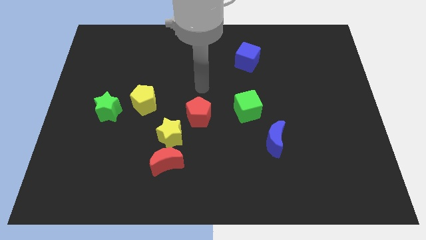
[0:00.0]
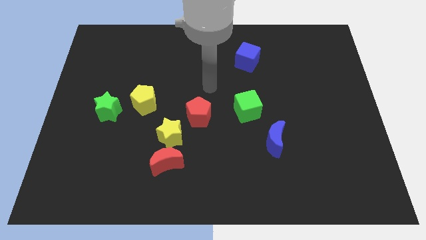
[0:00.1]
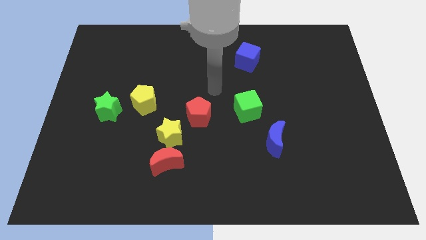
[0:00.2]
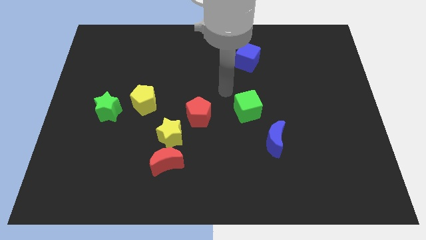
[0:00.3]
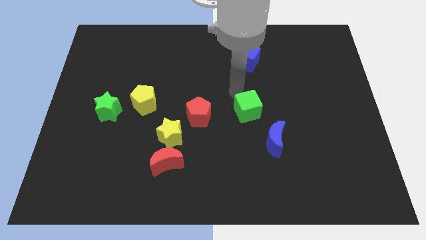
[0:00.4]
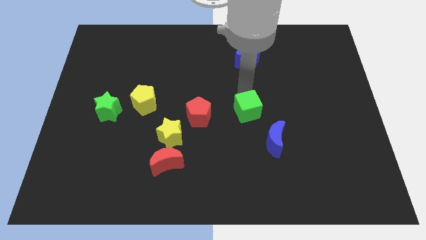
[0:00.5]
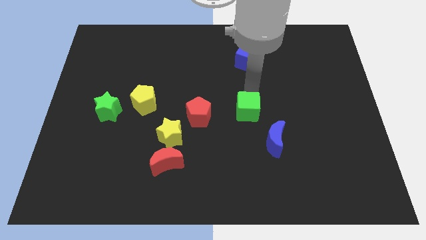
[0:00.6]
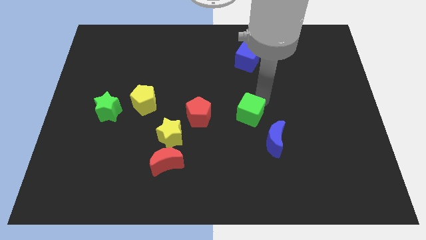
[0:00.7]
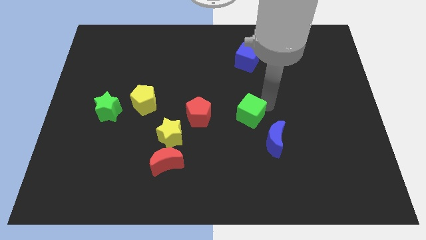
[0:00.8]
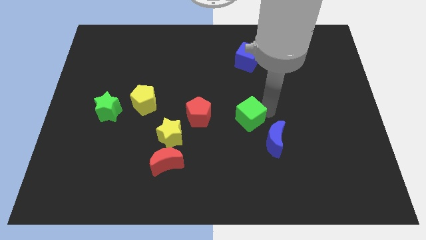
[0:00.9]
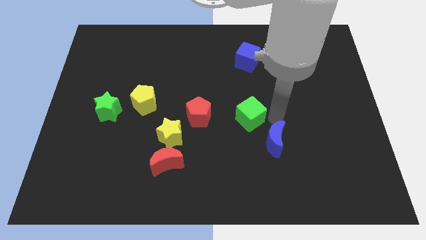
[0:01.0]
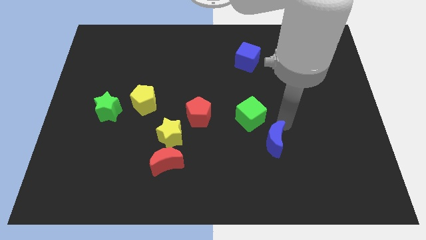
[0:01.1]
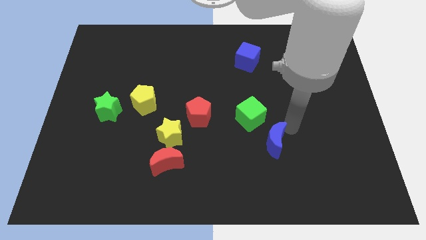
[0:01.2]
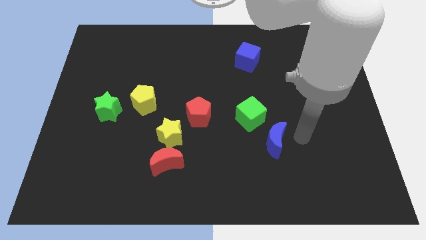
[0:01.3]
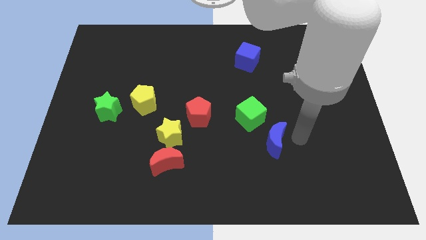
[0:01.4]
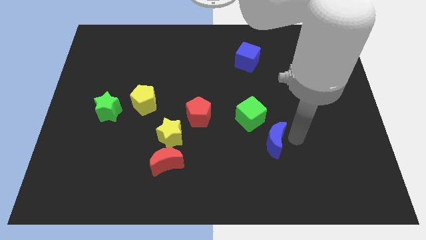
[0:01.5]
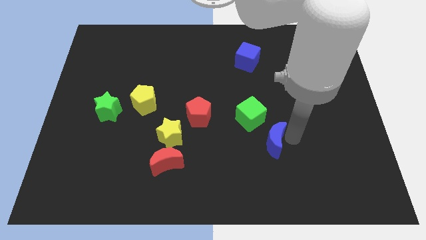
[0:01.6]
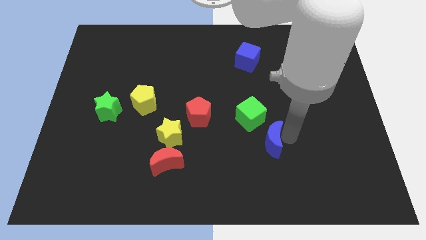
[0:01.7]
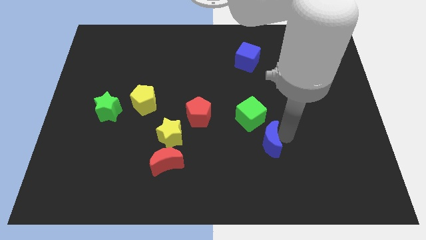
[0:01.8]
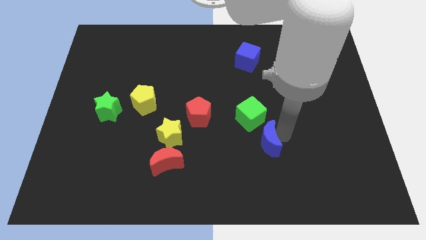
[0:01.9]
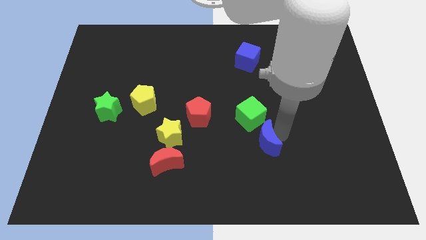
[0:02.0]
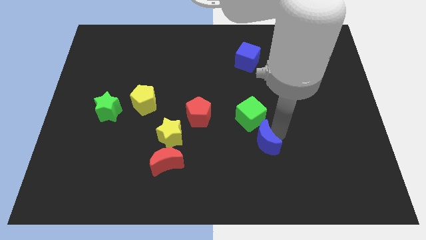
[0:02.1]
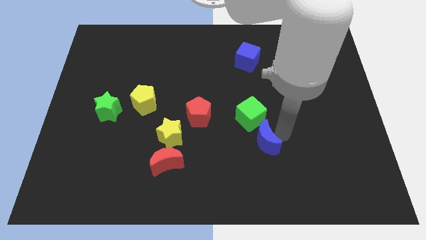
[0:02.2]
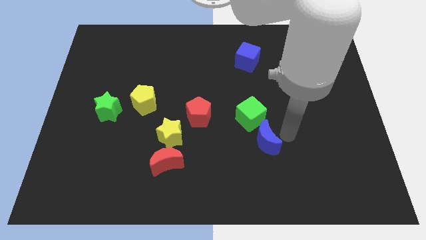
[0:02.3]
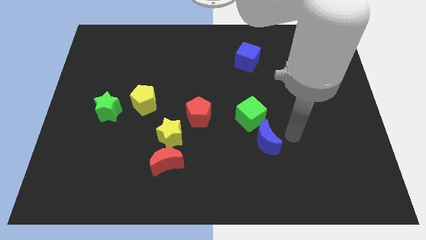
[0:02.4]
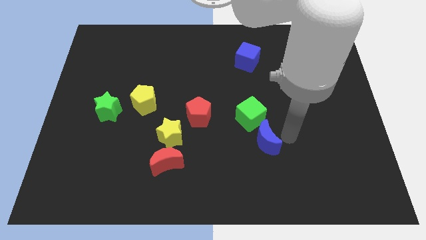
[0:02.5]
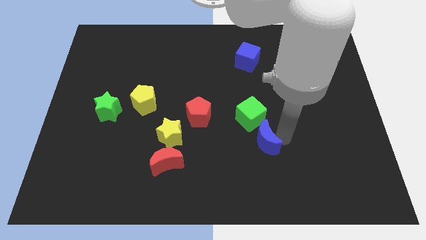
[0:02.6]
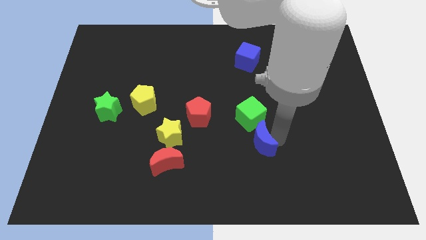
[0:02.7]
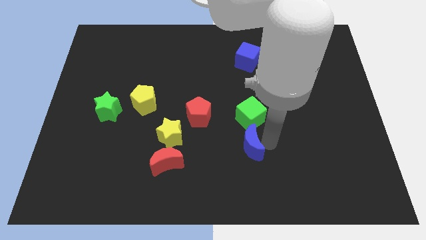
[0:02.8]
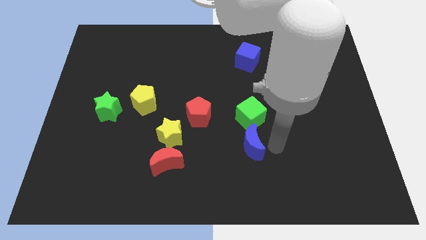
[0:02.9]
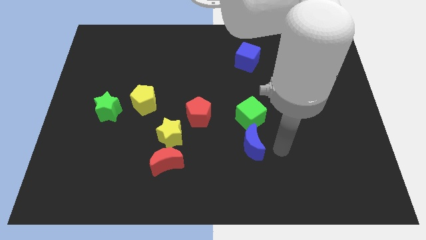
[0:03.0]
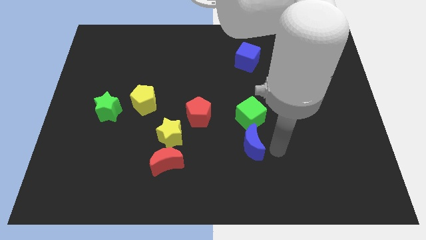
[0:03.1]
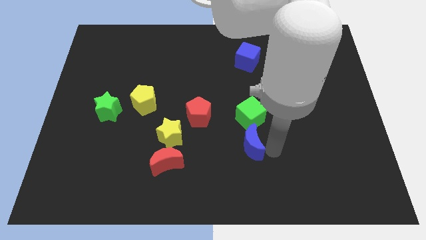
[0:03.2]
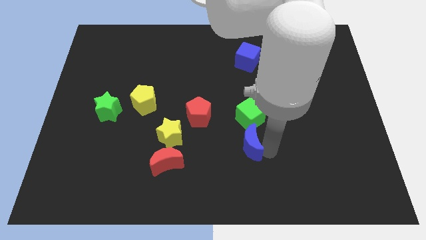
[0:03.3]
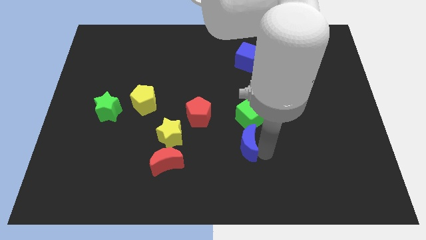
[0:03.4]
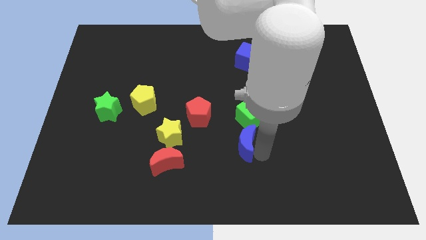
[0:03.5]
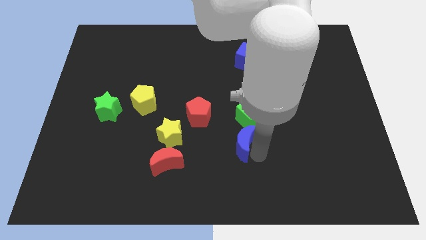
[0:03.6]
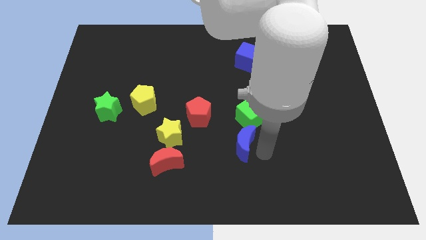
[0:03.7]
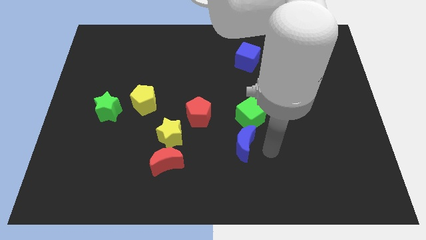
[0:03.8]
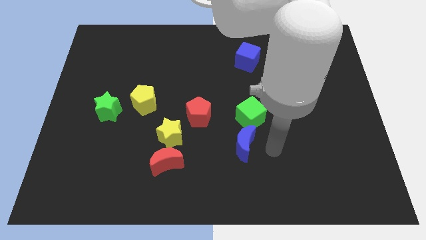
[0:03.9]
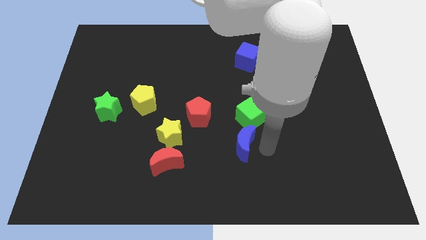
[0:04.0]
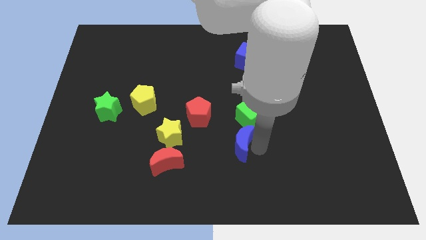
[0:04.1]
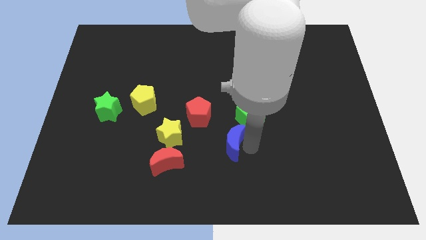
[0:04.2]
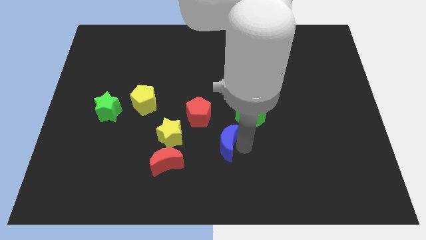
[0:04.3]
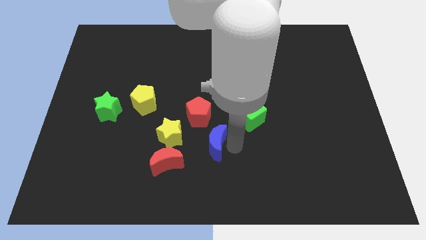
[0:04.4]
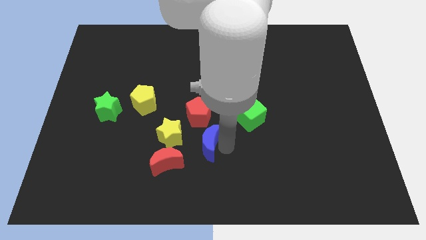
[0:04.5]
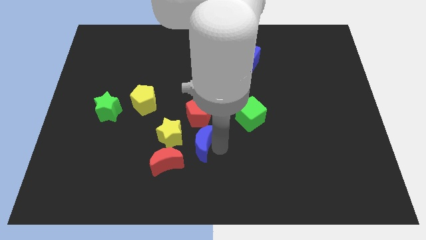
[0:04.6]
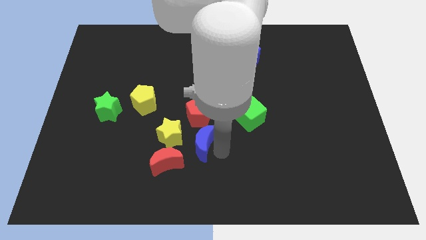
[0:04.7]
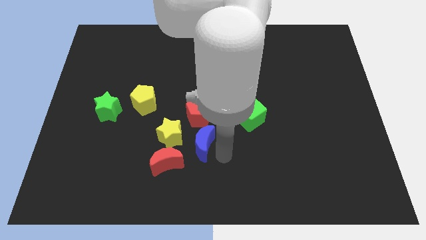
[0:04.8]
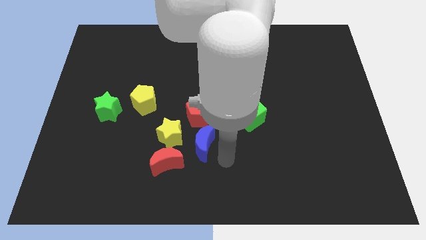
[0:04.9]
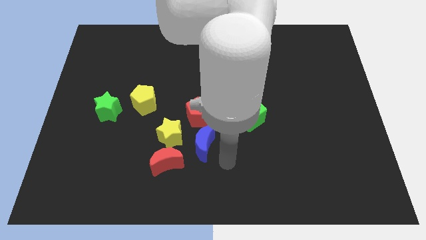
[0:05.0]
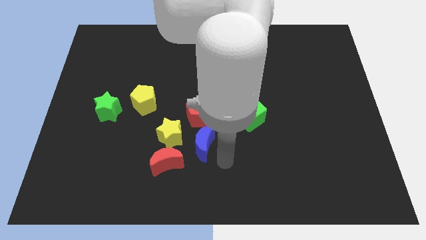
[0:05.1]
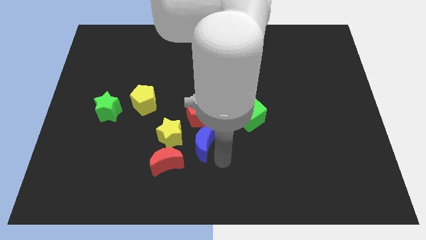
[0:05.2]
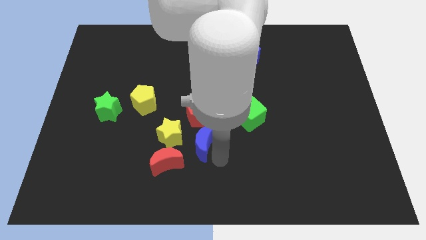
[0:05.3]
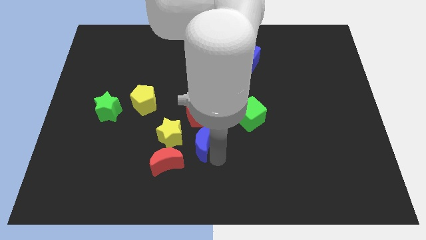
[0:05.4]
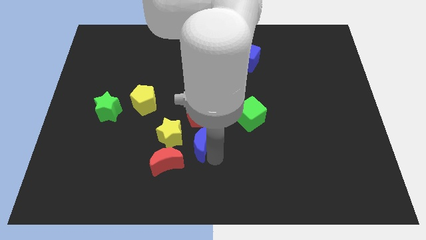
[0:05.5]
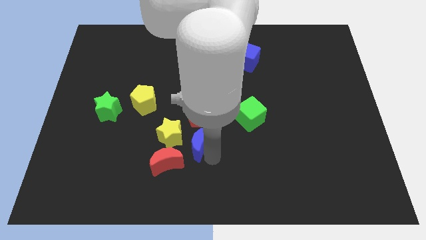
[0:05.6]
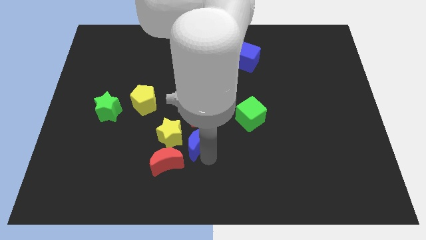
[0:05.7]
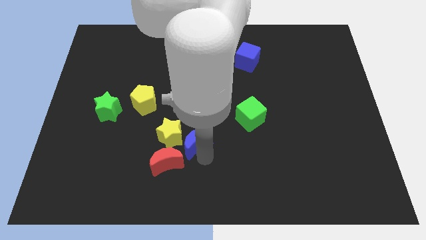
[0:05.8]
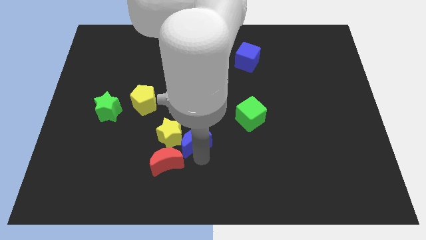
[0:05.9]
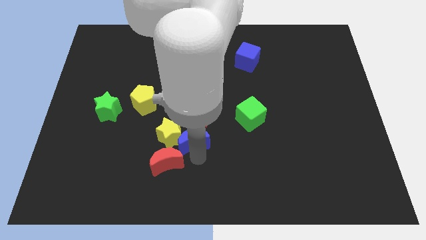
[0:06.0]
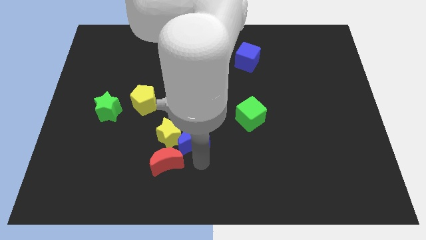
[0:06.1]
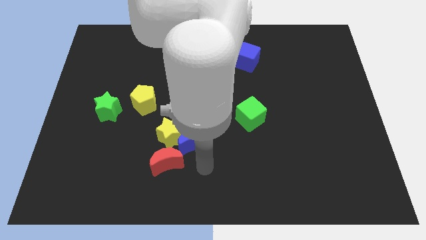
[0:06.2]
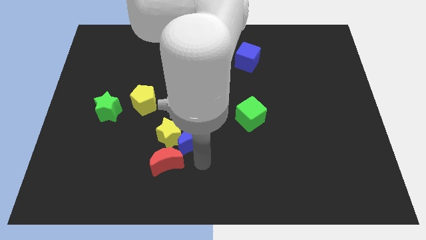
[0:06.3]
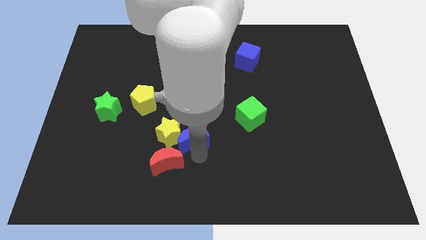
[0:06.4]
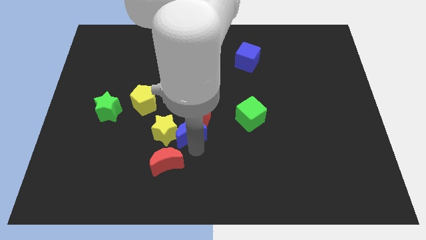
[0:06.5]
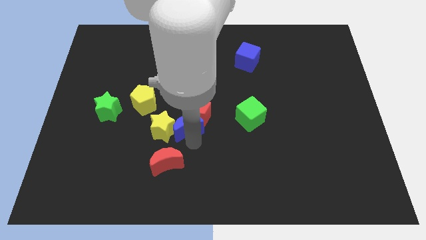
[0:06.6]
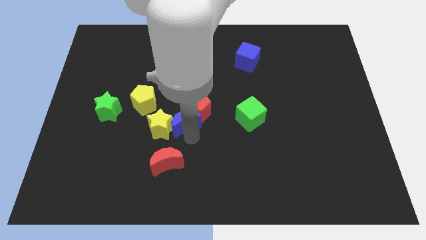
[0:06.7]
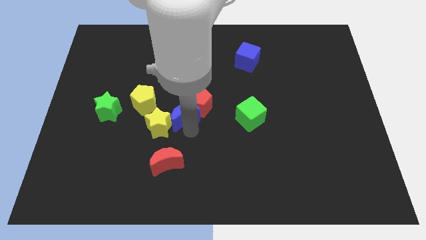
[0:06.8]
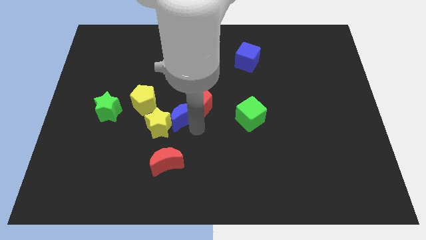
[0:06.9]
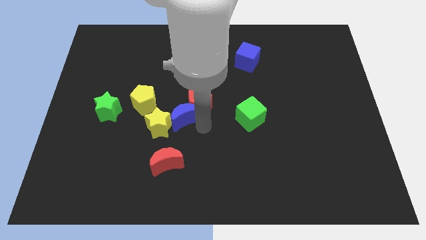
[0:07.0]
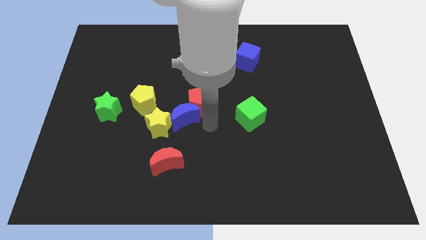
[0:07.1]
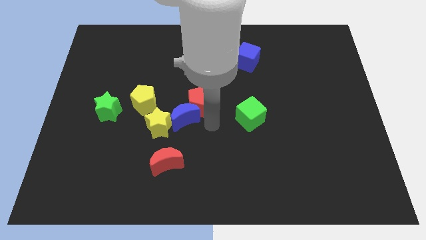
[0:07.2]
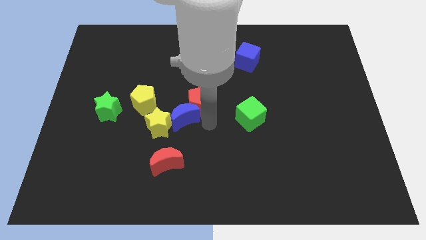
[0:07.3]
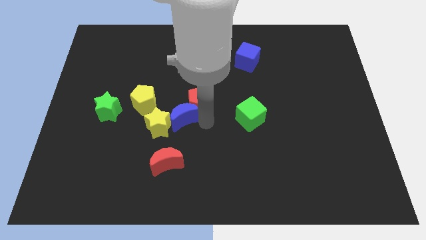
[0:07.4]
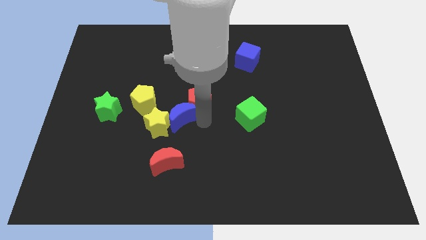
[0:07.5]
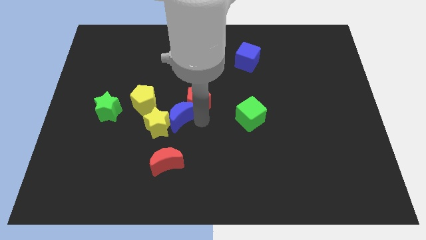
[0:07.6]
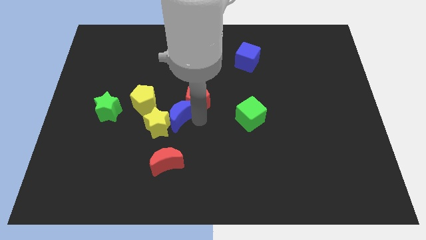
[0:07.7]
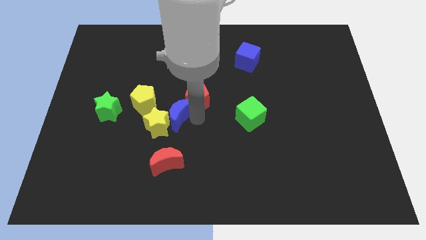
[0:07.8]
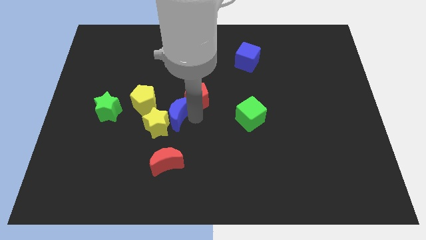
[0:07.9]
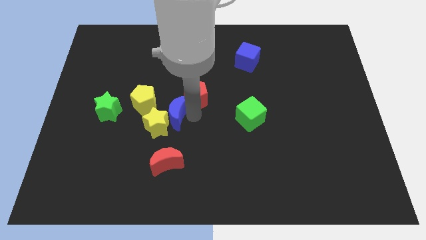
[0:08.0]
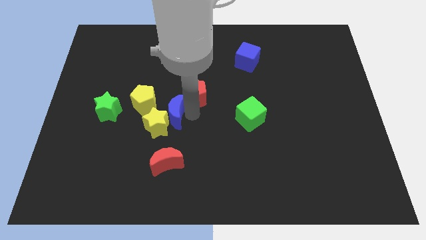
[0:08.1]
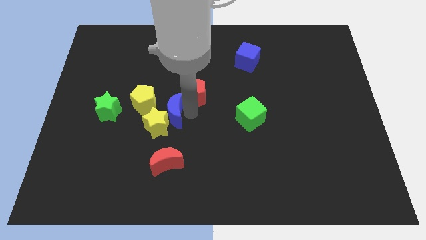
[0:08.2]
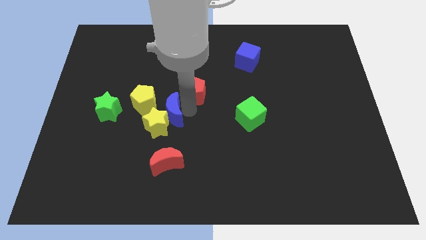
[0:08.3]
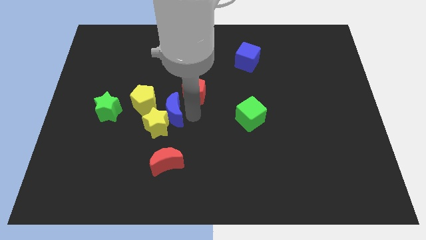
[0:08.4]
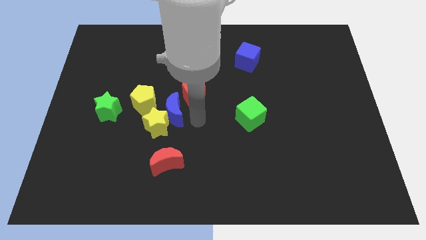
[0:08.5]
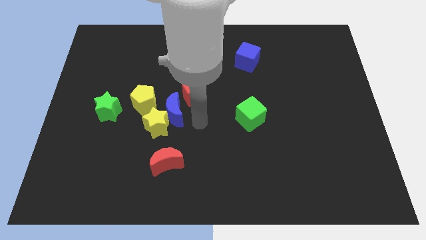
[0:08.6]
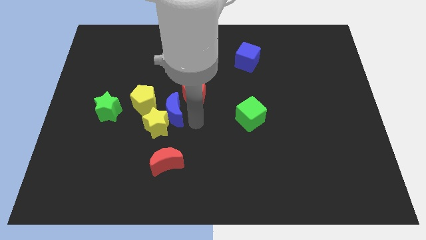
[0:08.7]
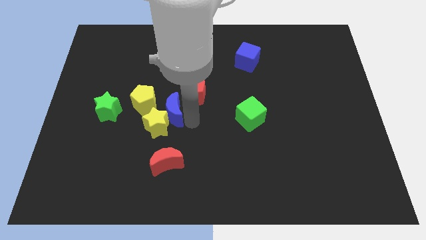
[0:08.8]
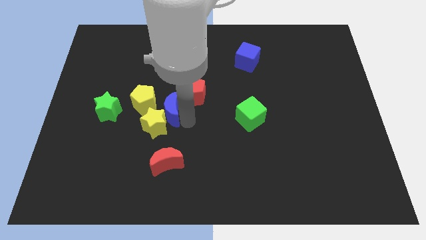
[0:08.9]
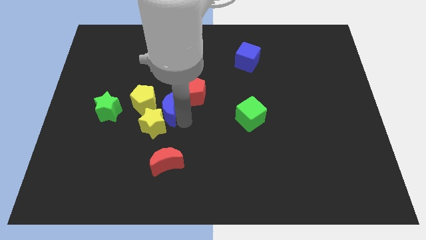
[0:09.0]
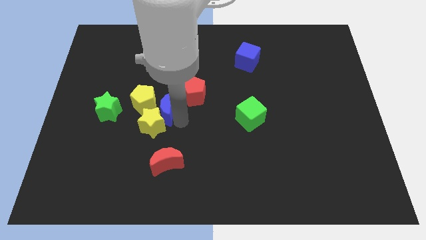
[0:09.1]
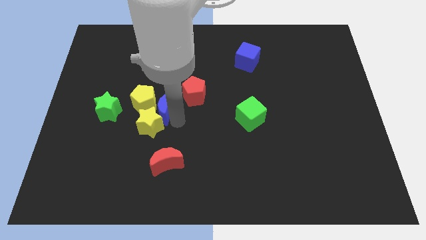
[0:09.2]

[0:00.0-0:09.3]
slide the blue moon towards the yellow pentagon
